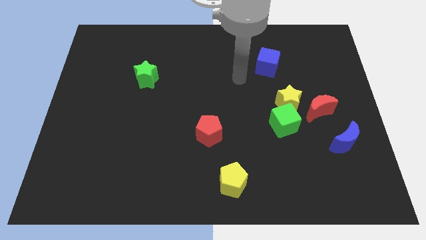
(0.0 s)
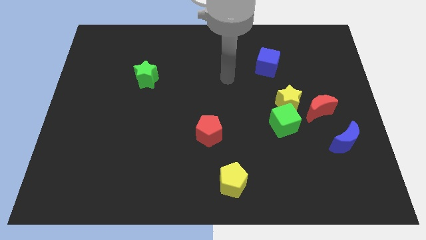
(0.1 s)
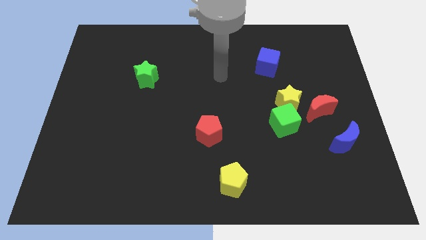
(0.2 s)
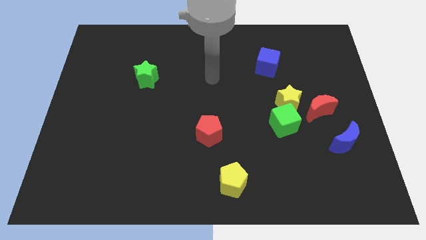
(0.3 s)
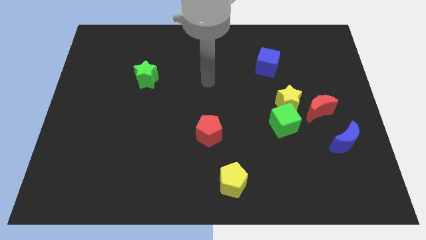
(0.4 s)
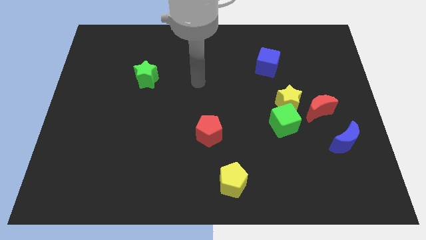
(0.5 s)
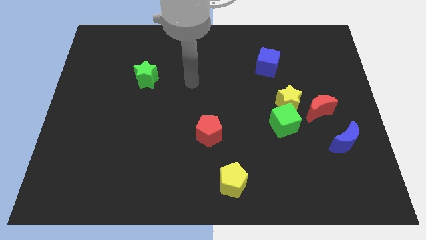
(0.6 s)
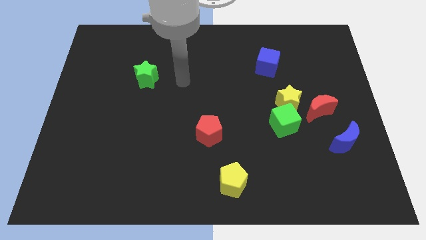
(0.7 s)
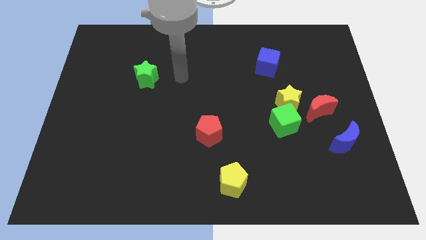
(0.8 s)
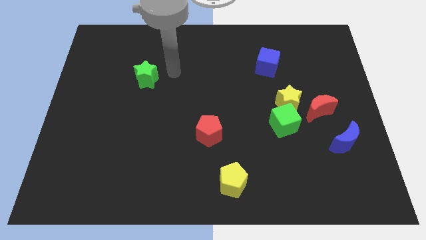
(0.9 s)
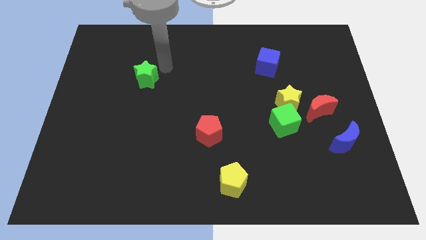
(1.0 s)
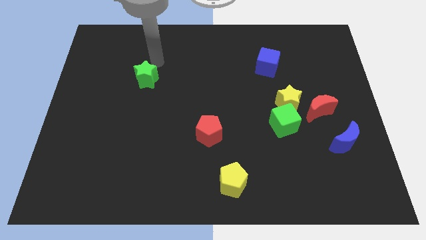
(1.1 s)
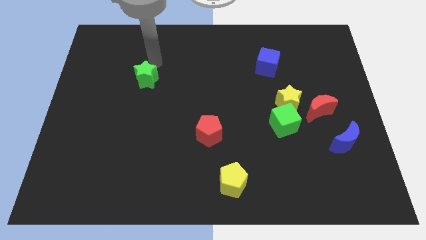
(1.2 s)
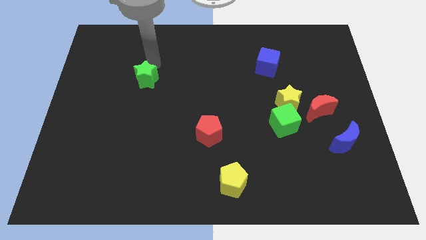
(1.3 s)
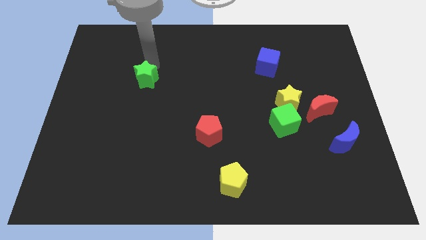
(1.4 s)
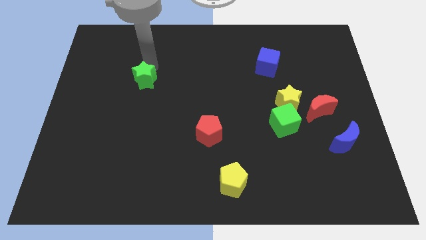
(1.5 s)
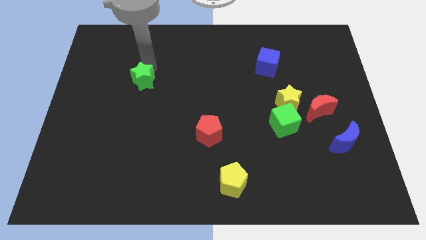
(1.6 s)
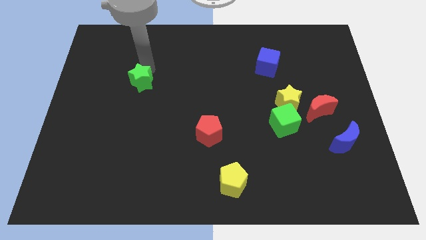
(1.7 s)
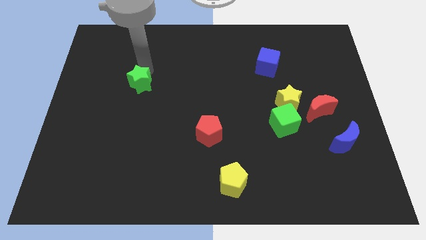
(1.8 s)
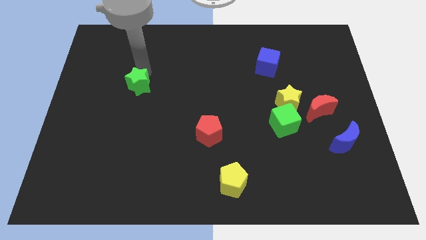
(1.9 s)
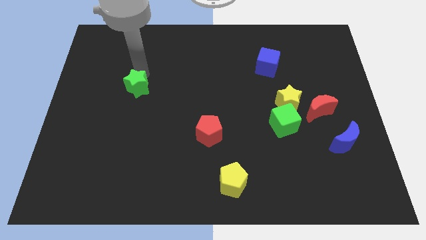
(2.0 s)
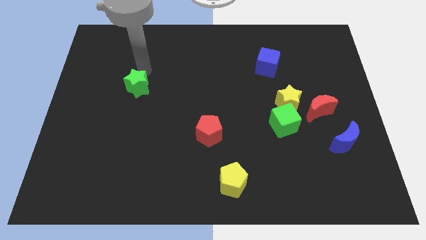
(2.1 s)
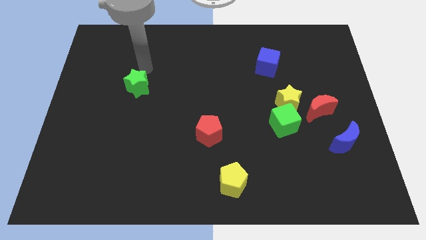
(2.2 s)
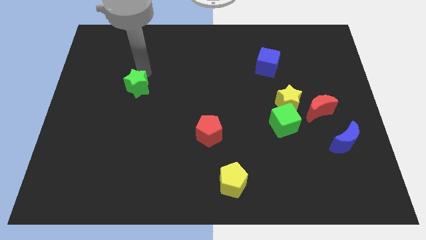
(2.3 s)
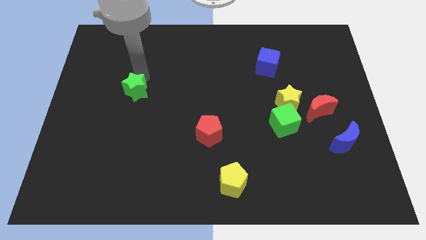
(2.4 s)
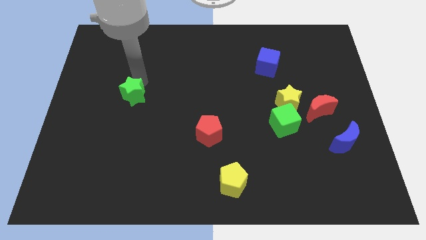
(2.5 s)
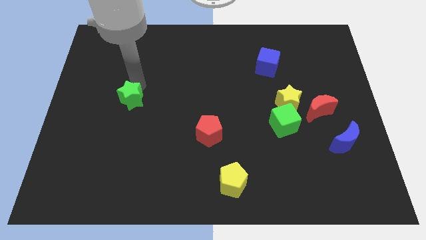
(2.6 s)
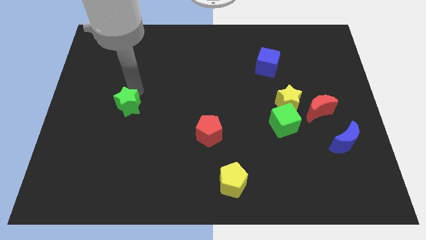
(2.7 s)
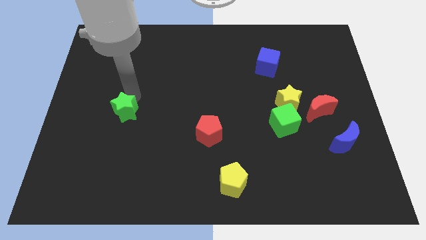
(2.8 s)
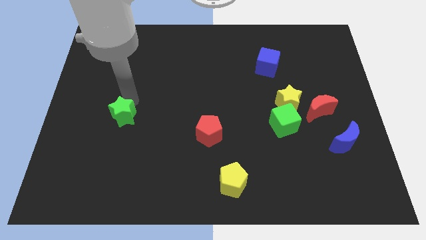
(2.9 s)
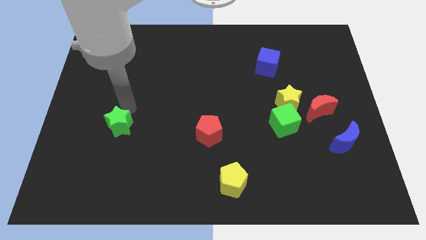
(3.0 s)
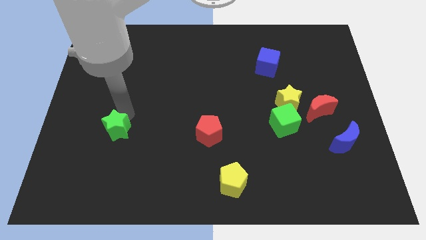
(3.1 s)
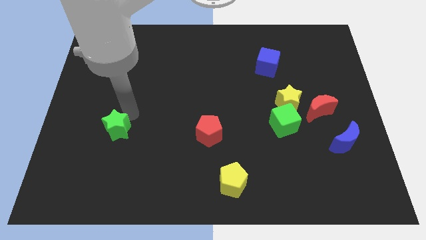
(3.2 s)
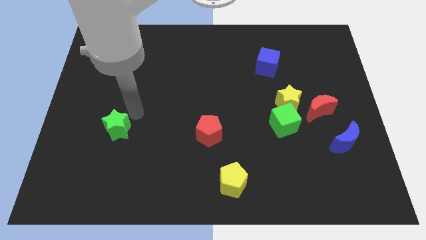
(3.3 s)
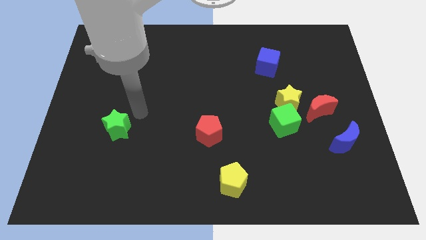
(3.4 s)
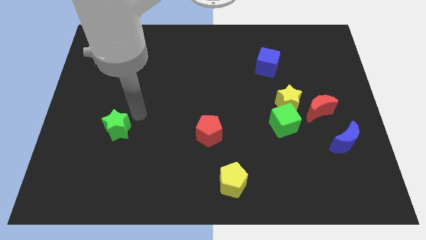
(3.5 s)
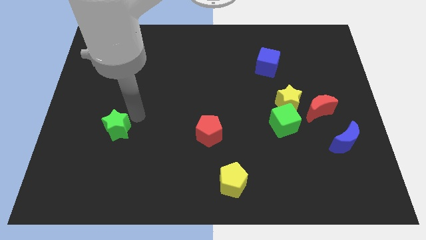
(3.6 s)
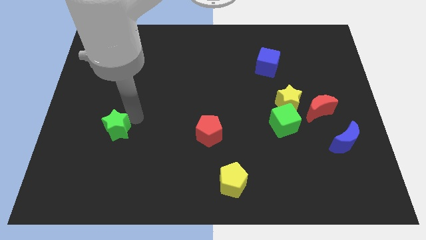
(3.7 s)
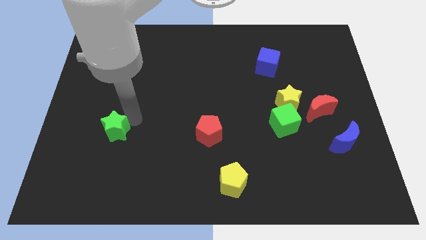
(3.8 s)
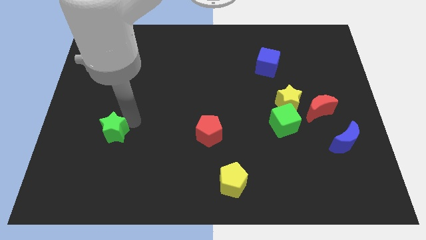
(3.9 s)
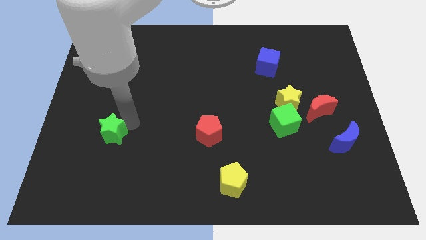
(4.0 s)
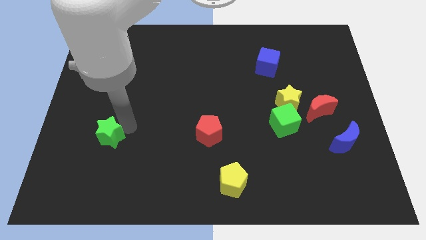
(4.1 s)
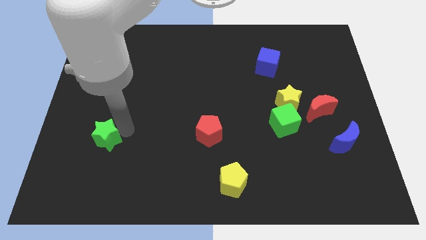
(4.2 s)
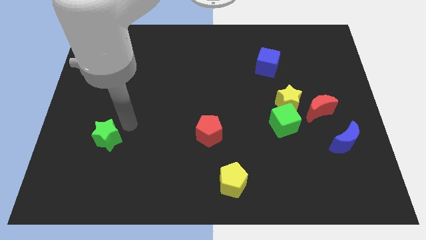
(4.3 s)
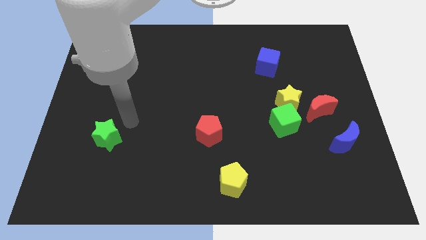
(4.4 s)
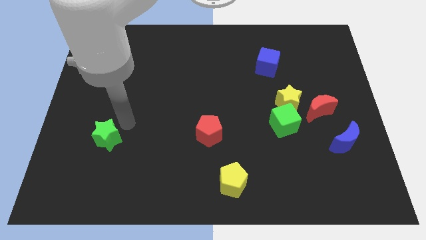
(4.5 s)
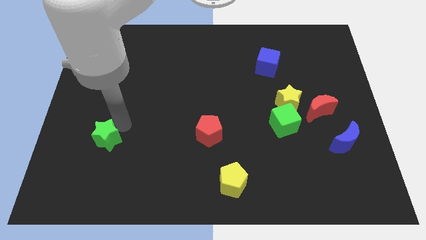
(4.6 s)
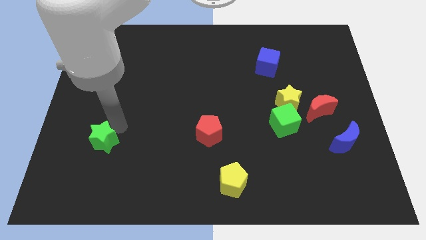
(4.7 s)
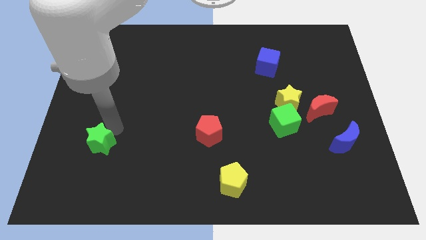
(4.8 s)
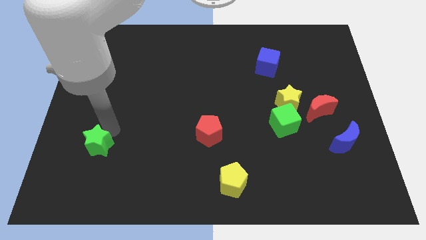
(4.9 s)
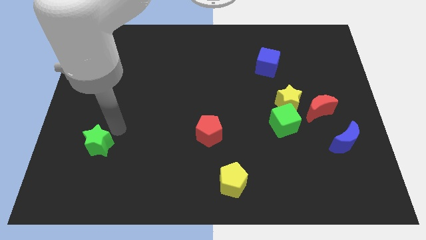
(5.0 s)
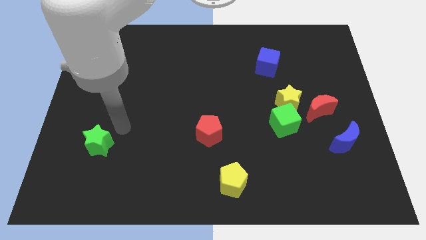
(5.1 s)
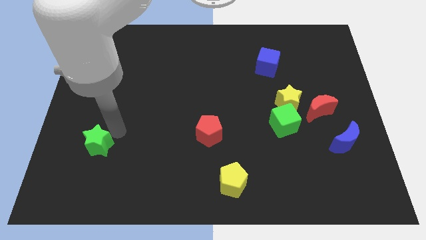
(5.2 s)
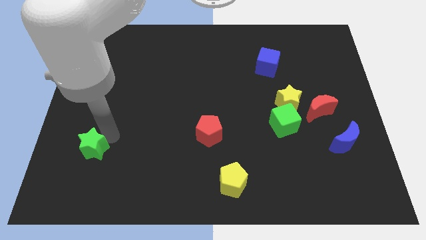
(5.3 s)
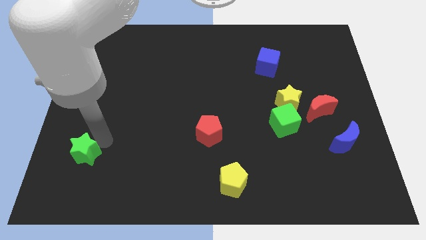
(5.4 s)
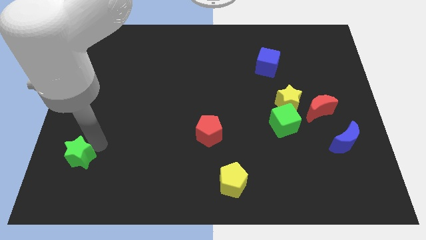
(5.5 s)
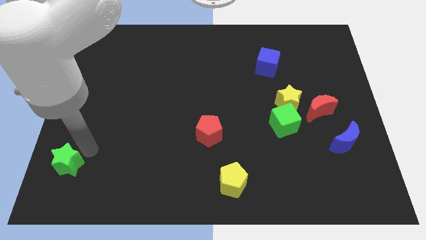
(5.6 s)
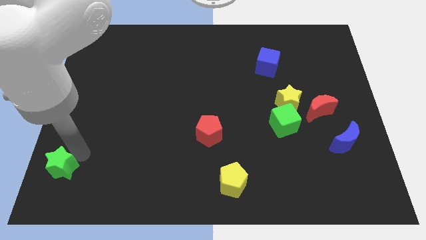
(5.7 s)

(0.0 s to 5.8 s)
slide the green star to the lower left corner
